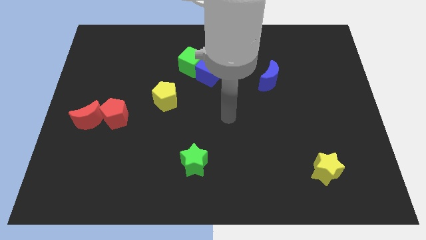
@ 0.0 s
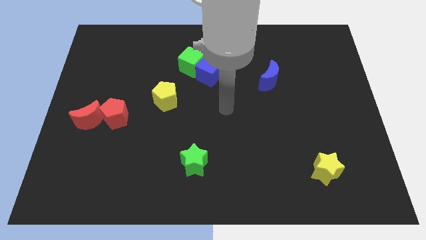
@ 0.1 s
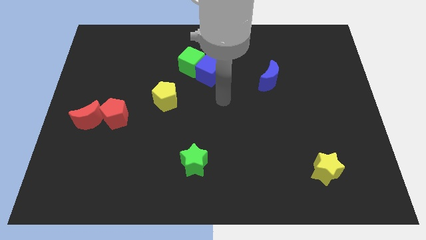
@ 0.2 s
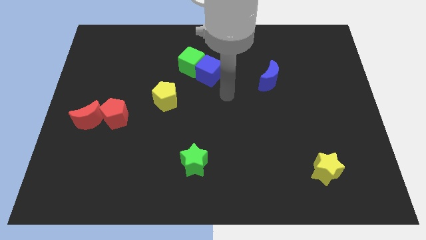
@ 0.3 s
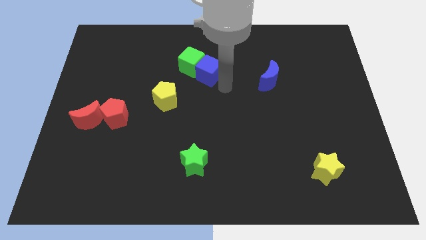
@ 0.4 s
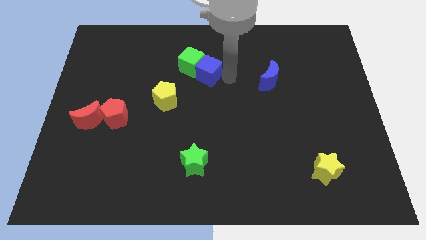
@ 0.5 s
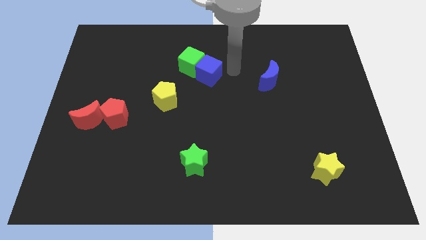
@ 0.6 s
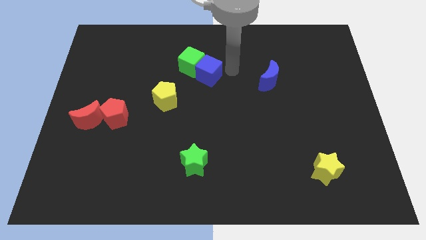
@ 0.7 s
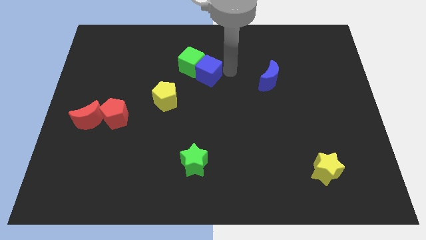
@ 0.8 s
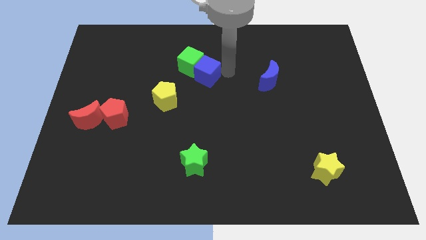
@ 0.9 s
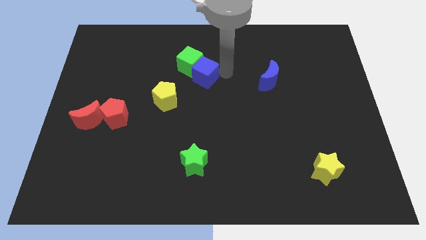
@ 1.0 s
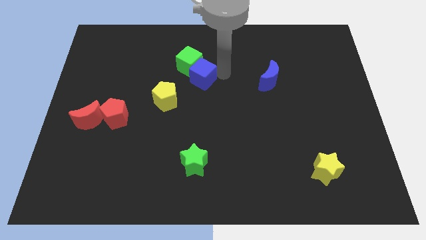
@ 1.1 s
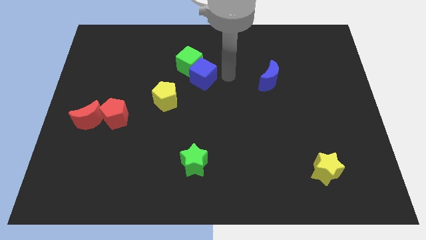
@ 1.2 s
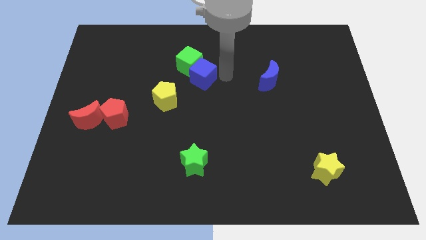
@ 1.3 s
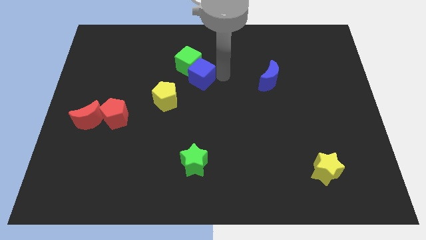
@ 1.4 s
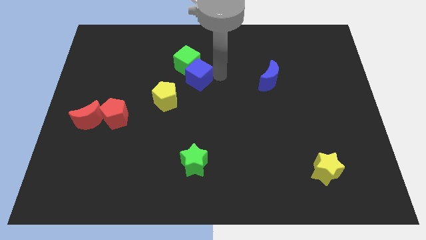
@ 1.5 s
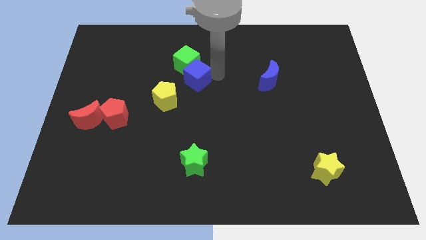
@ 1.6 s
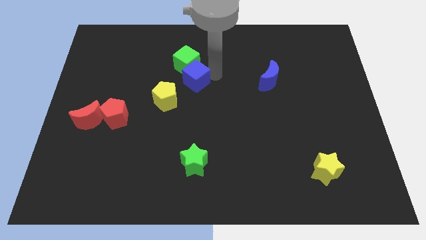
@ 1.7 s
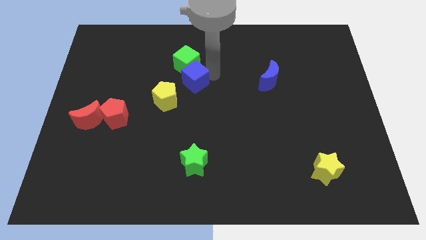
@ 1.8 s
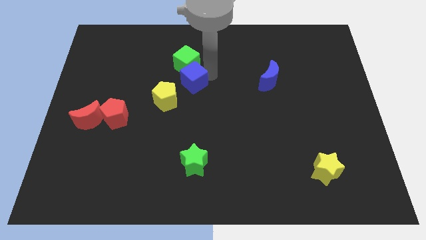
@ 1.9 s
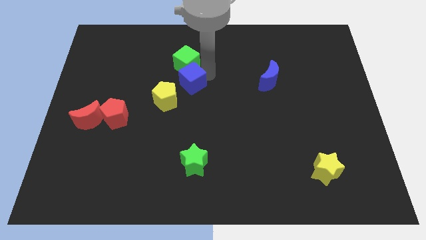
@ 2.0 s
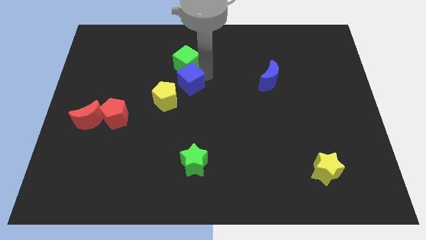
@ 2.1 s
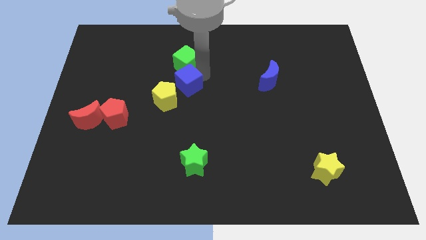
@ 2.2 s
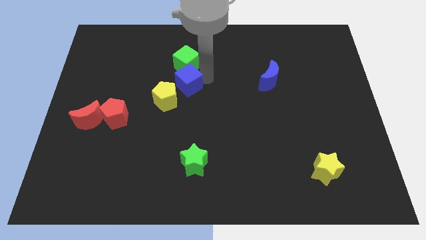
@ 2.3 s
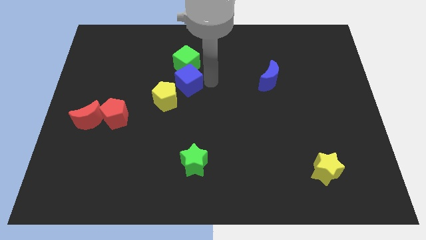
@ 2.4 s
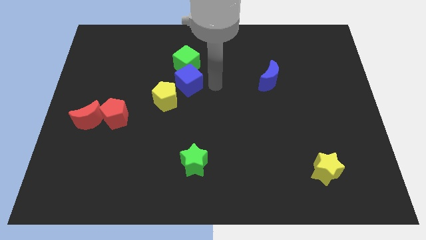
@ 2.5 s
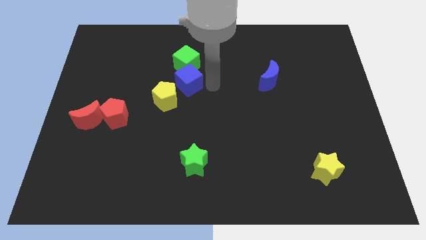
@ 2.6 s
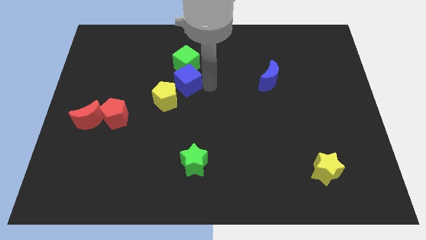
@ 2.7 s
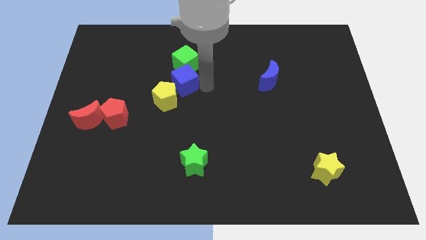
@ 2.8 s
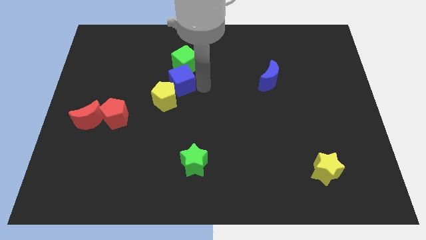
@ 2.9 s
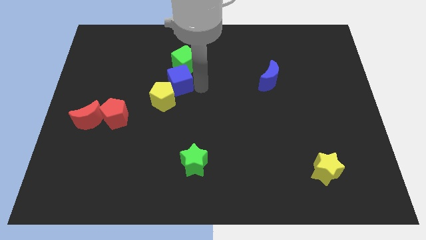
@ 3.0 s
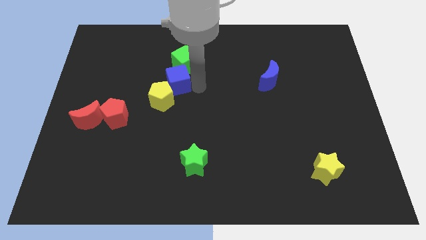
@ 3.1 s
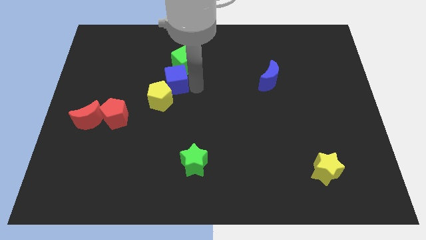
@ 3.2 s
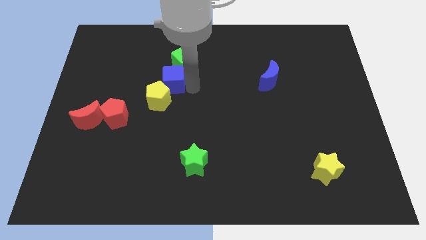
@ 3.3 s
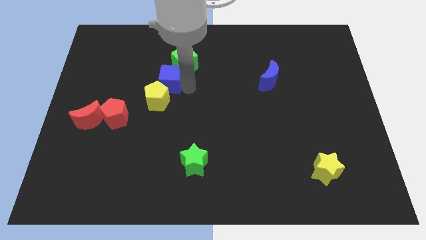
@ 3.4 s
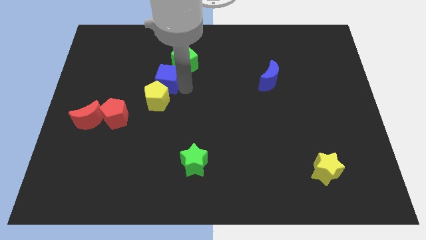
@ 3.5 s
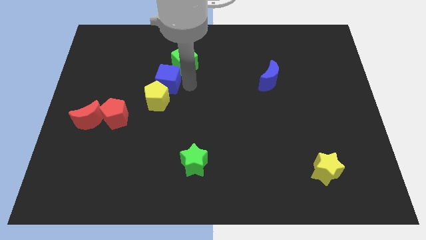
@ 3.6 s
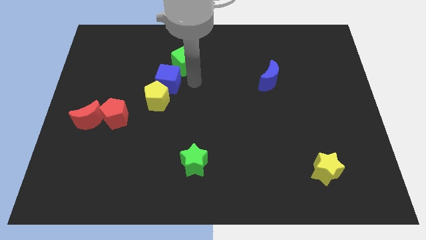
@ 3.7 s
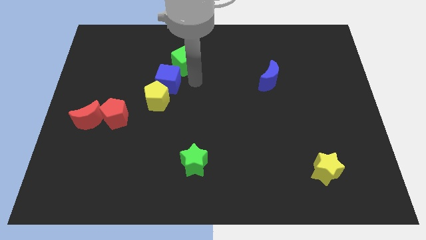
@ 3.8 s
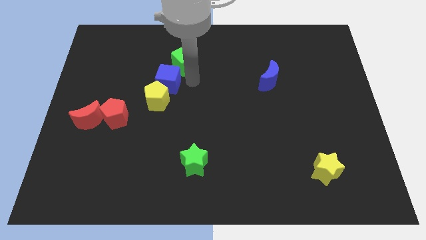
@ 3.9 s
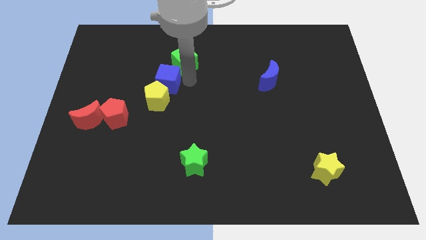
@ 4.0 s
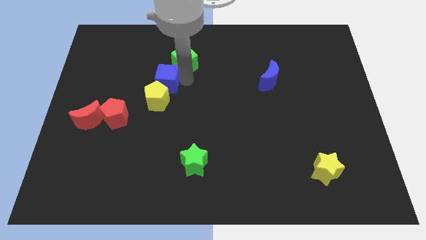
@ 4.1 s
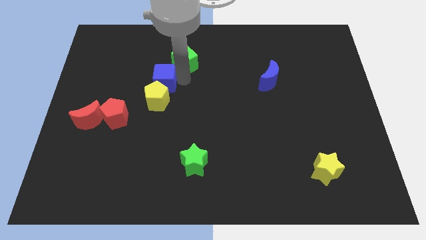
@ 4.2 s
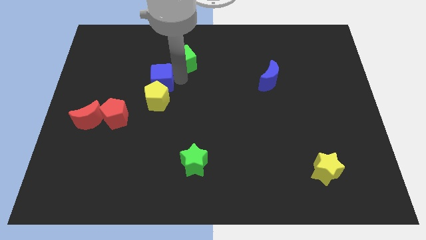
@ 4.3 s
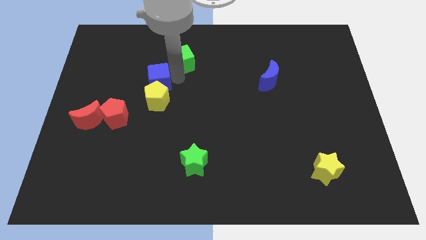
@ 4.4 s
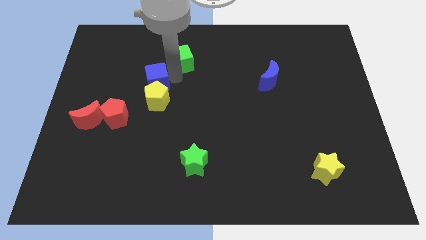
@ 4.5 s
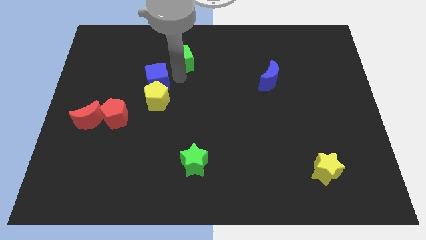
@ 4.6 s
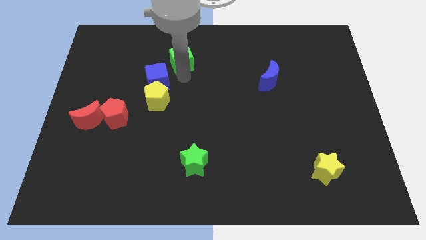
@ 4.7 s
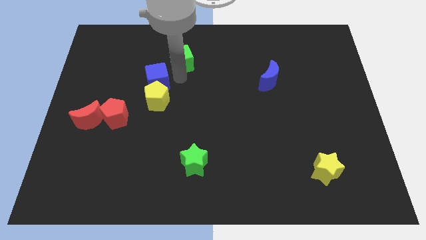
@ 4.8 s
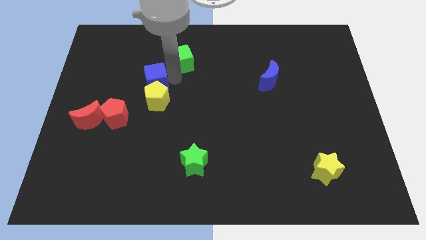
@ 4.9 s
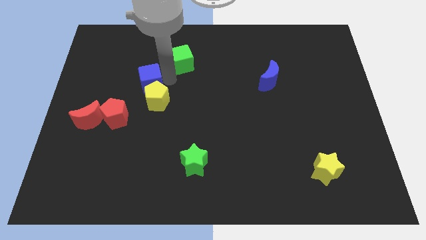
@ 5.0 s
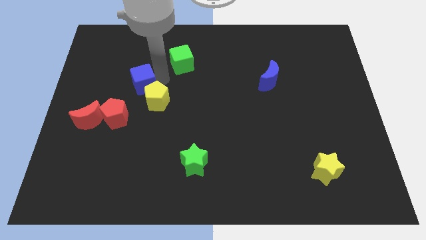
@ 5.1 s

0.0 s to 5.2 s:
put the blue cube to the top right of the red pentagon

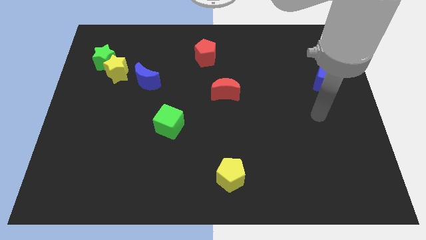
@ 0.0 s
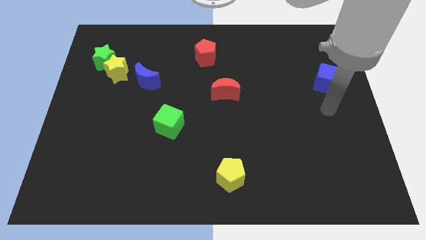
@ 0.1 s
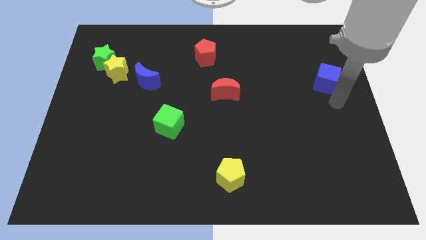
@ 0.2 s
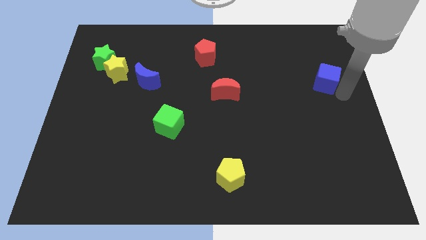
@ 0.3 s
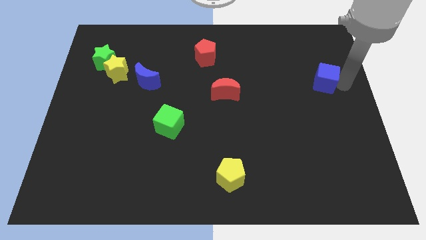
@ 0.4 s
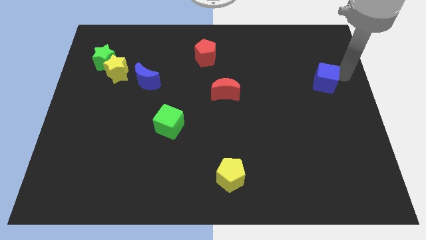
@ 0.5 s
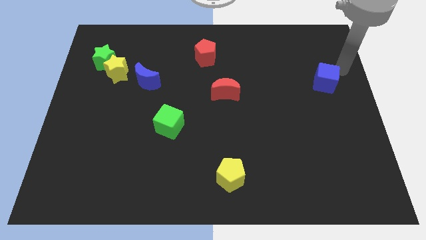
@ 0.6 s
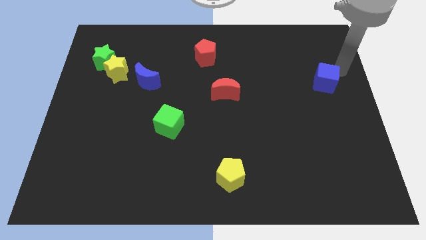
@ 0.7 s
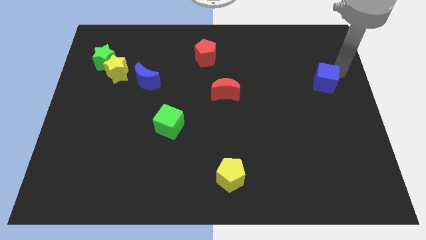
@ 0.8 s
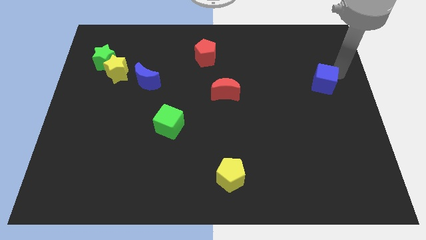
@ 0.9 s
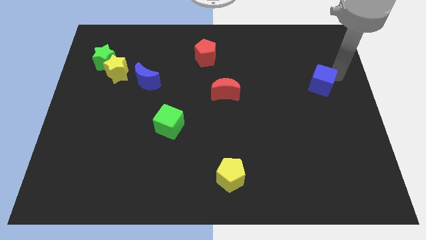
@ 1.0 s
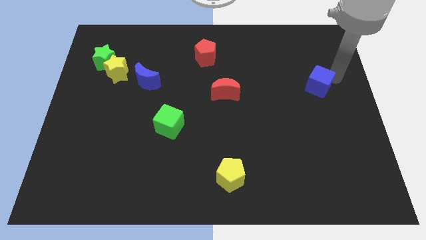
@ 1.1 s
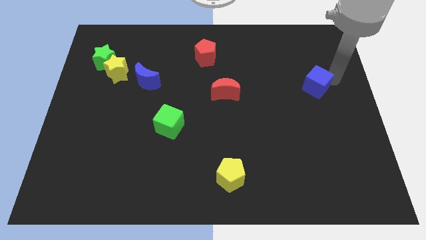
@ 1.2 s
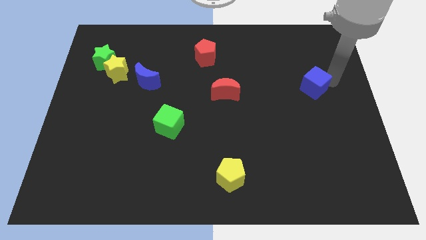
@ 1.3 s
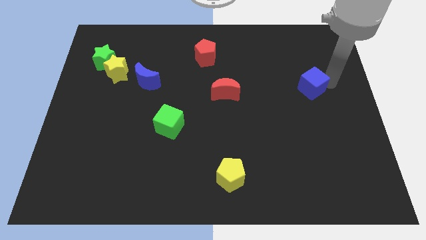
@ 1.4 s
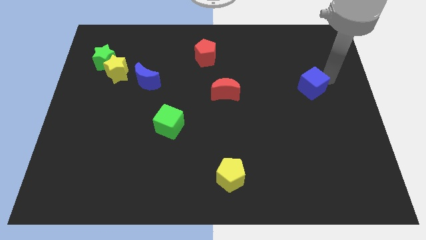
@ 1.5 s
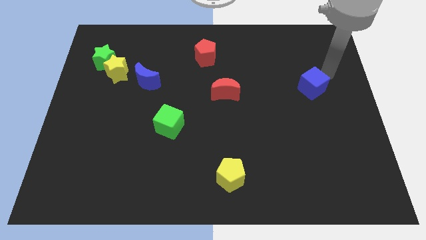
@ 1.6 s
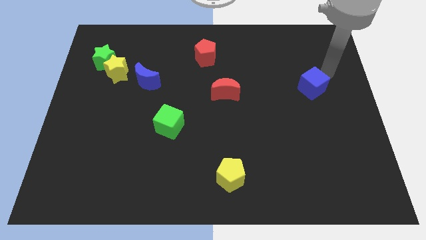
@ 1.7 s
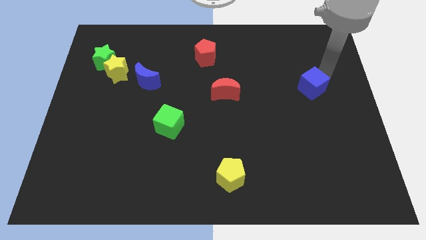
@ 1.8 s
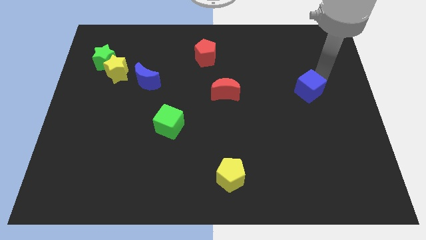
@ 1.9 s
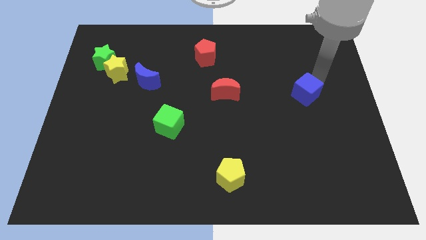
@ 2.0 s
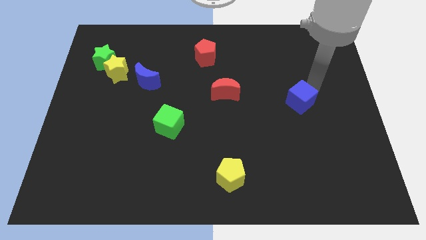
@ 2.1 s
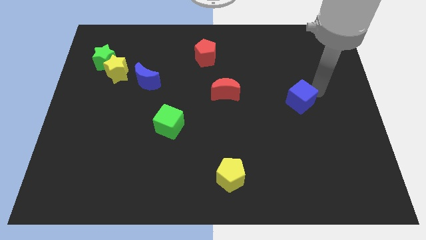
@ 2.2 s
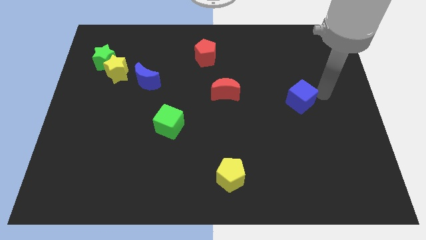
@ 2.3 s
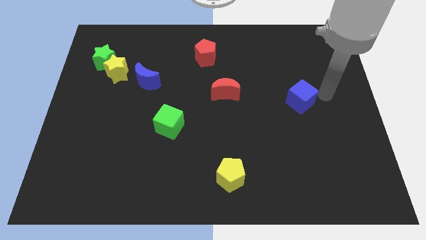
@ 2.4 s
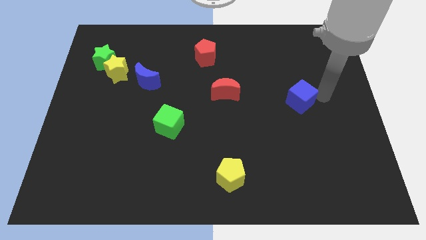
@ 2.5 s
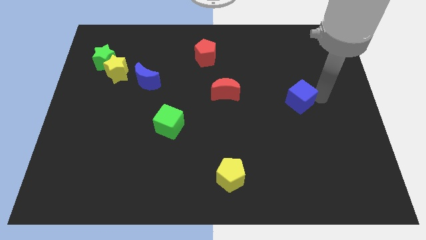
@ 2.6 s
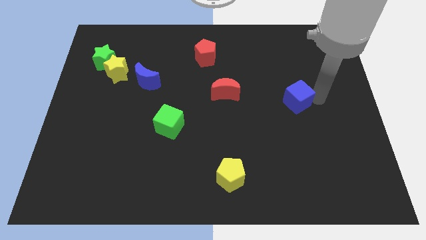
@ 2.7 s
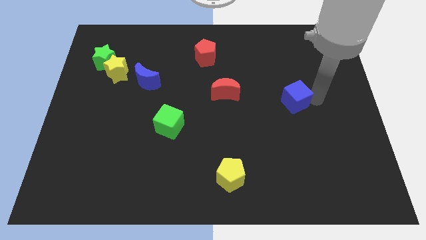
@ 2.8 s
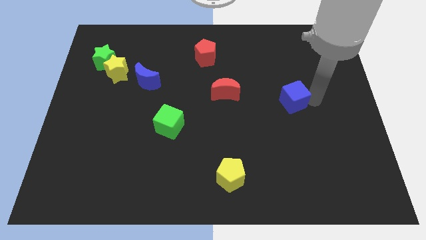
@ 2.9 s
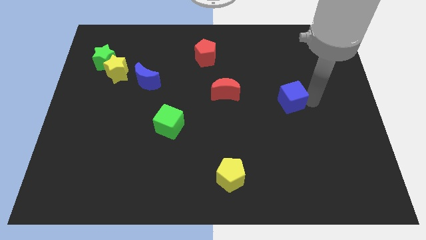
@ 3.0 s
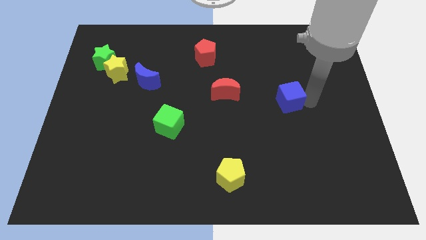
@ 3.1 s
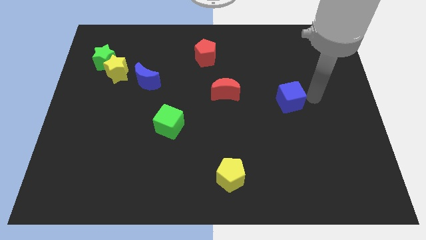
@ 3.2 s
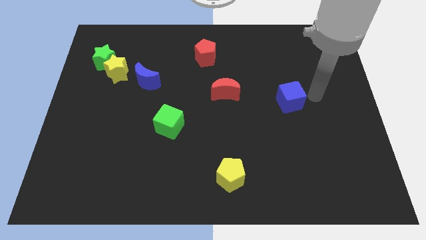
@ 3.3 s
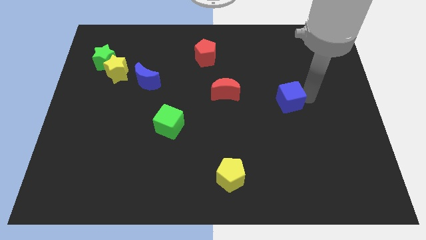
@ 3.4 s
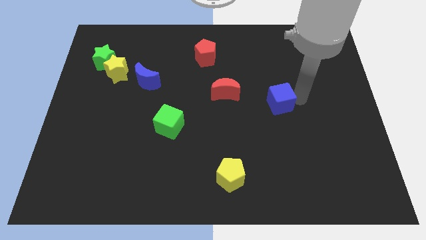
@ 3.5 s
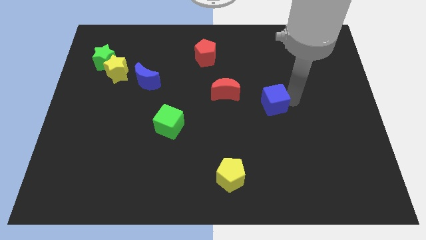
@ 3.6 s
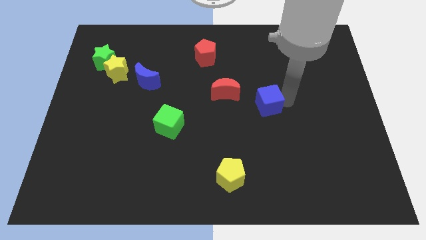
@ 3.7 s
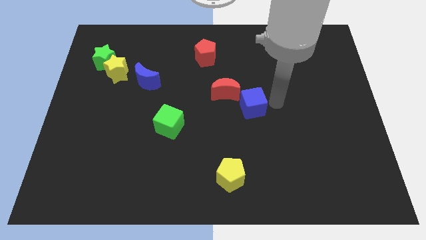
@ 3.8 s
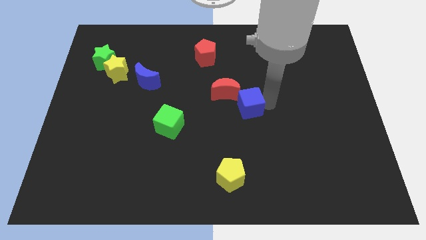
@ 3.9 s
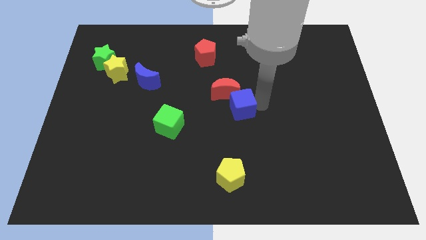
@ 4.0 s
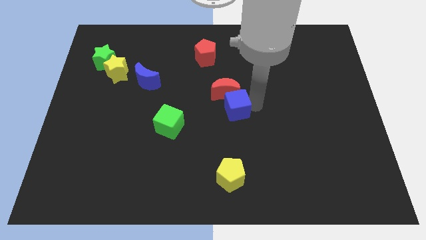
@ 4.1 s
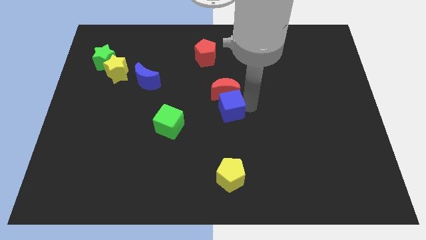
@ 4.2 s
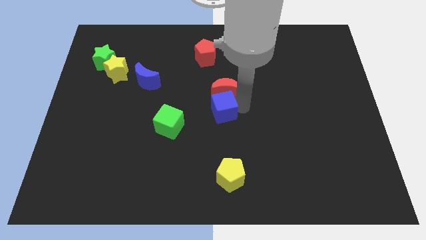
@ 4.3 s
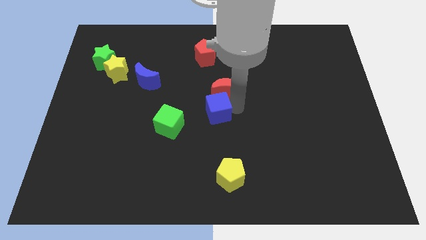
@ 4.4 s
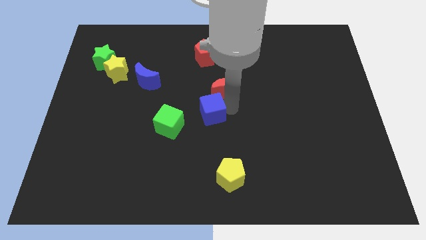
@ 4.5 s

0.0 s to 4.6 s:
slide the blue cube to the top right side of the green cube
